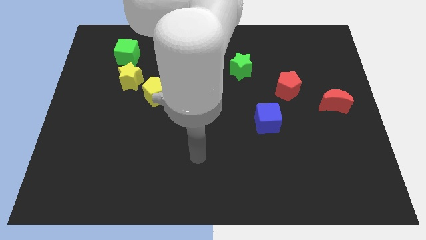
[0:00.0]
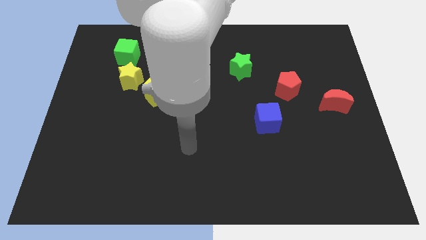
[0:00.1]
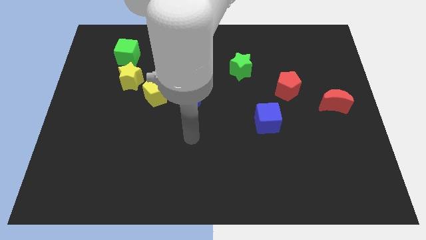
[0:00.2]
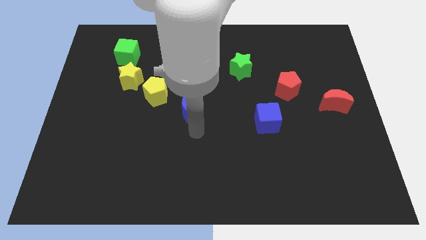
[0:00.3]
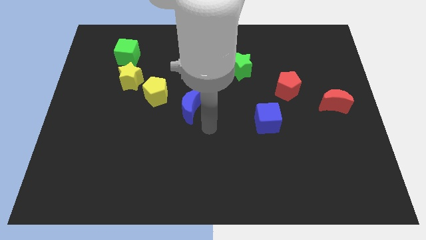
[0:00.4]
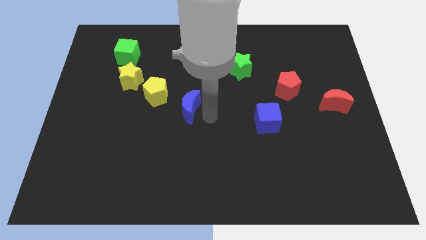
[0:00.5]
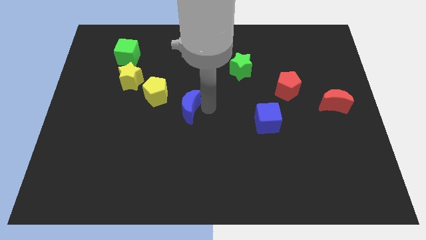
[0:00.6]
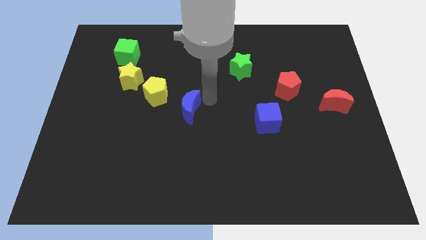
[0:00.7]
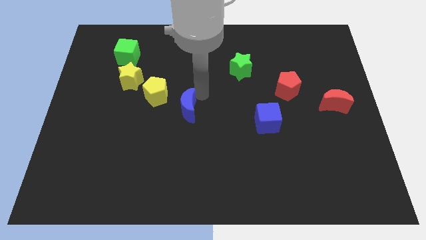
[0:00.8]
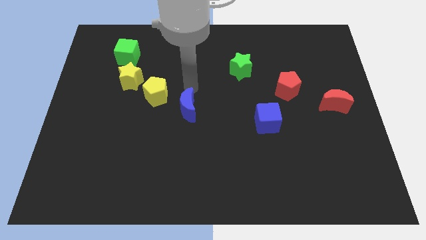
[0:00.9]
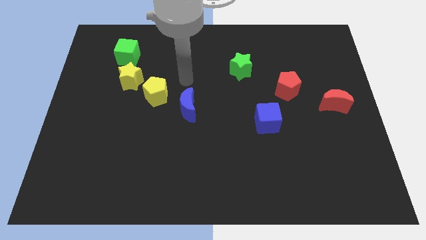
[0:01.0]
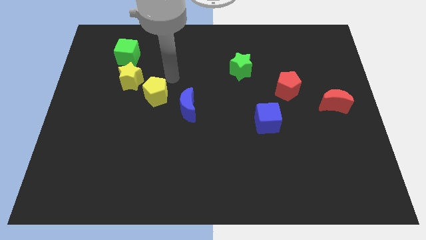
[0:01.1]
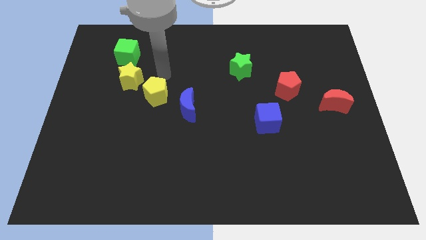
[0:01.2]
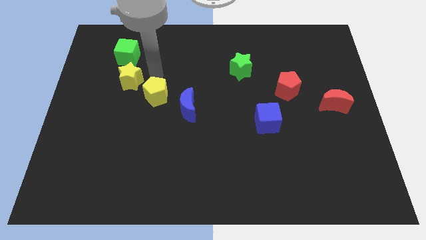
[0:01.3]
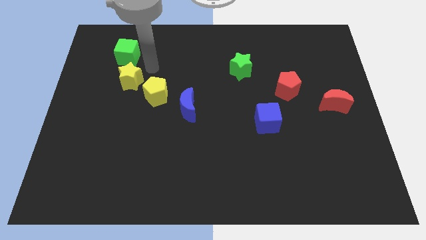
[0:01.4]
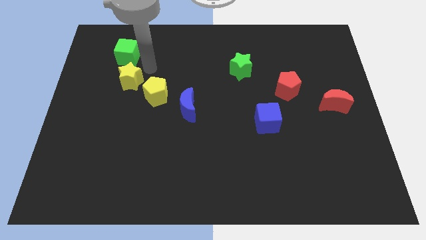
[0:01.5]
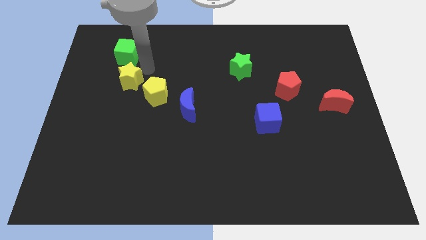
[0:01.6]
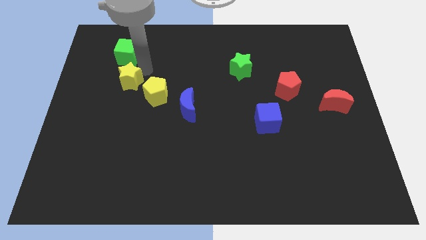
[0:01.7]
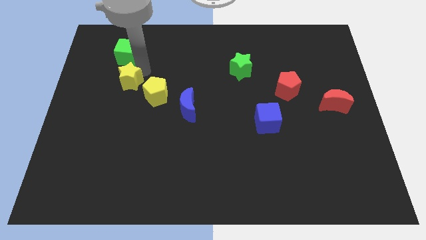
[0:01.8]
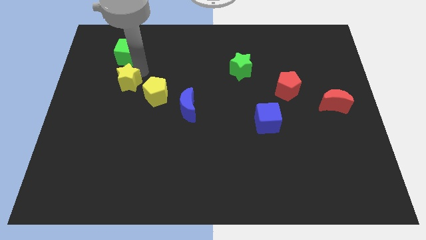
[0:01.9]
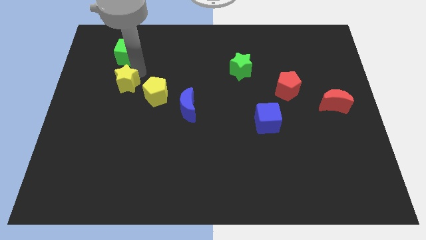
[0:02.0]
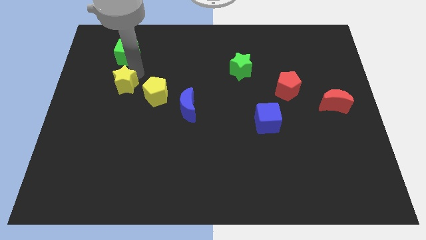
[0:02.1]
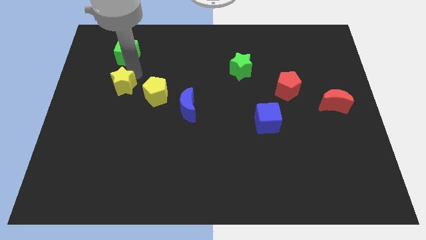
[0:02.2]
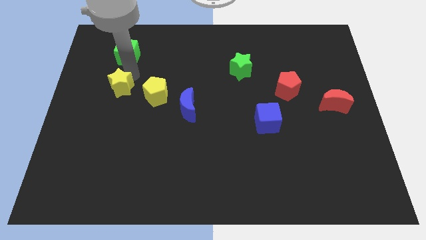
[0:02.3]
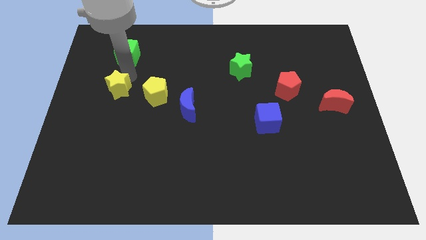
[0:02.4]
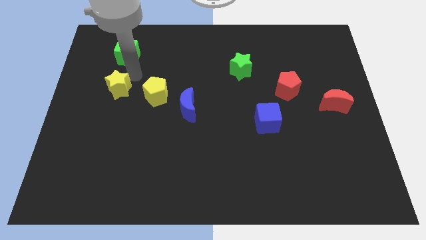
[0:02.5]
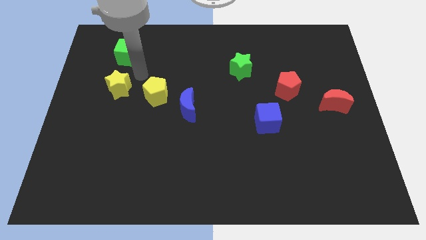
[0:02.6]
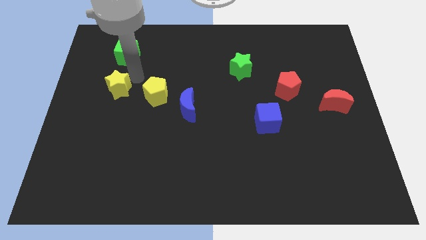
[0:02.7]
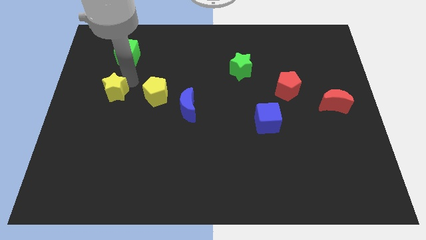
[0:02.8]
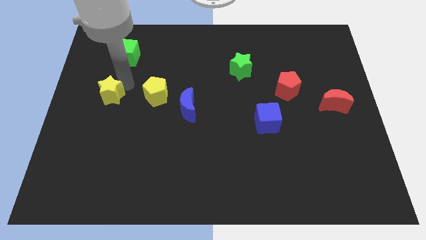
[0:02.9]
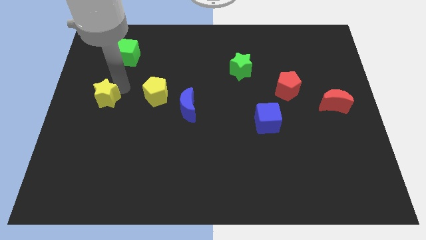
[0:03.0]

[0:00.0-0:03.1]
separate the yellow star from the yellow pentagon and green cube

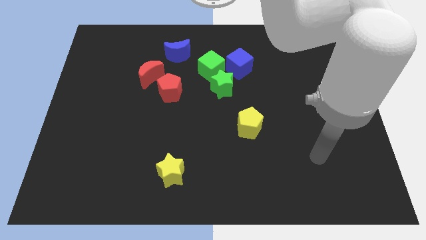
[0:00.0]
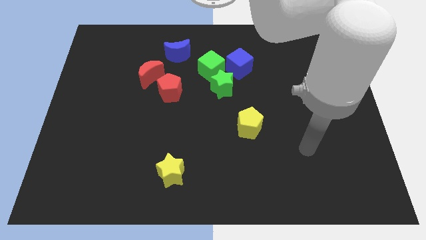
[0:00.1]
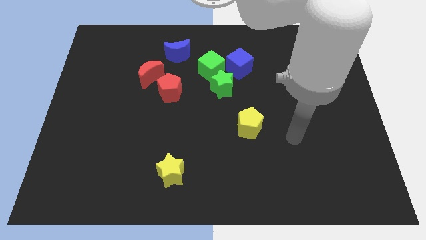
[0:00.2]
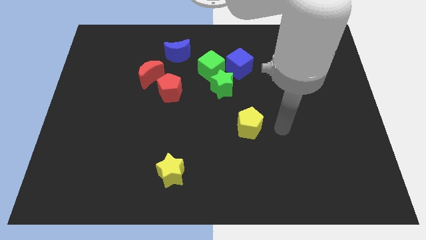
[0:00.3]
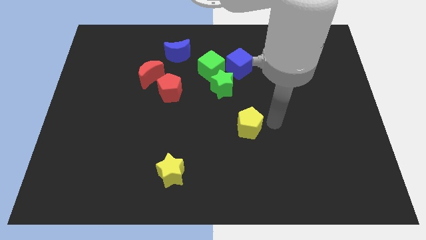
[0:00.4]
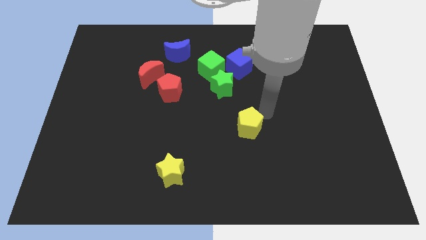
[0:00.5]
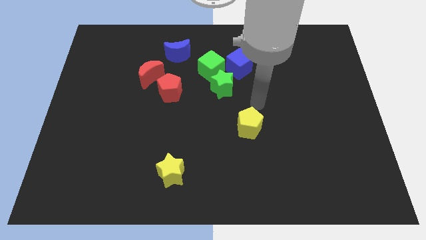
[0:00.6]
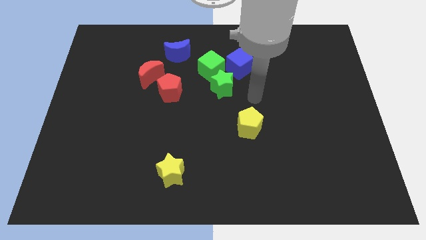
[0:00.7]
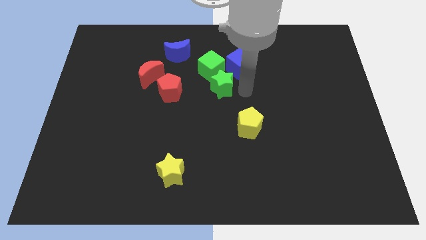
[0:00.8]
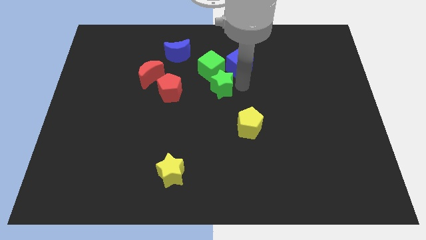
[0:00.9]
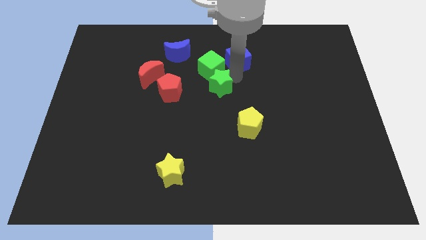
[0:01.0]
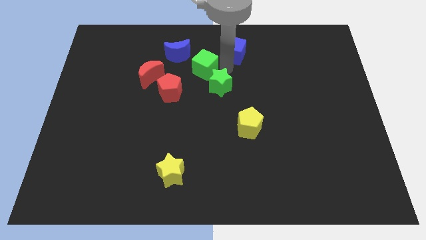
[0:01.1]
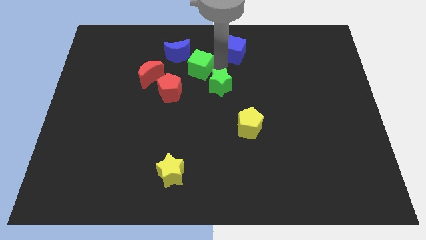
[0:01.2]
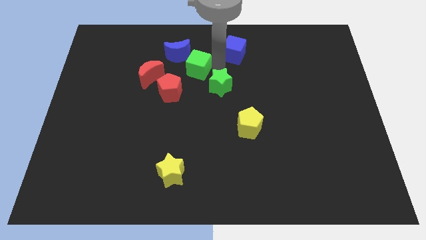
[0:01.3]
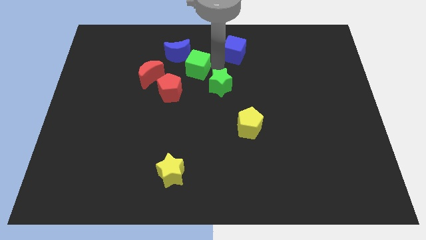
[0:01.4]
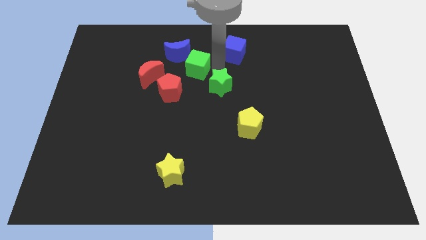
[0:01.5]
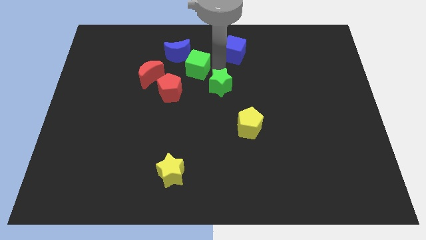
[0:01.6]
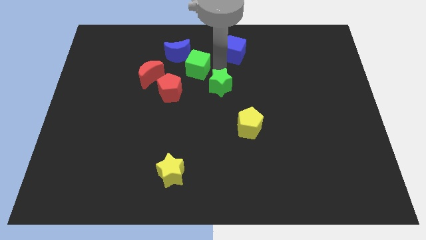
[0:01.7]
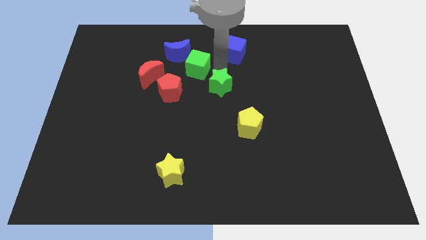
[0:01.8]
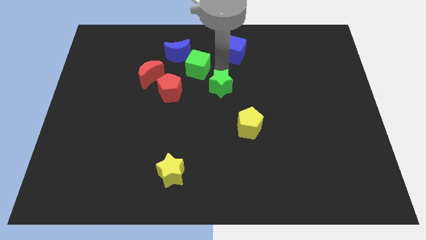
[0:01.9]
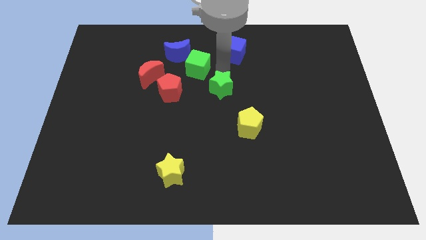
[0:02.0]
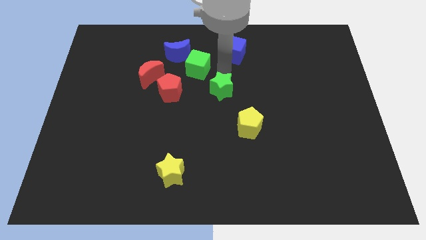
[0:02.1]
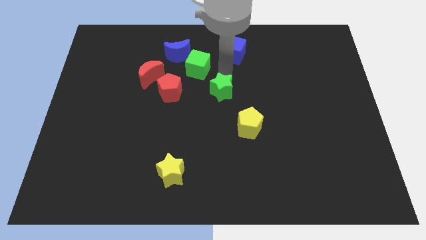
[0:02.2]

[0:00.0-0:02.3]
separate the green star from the green cube and blue cube

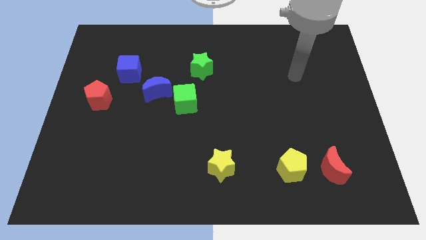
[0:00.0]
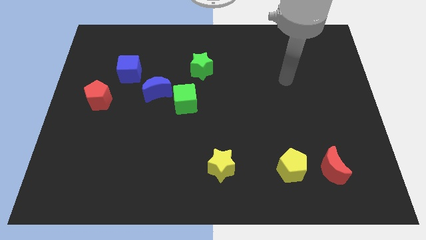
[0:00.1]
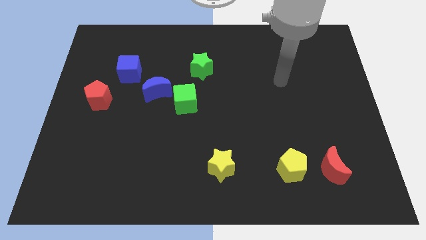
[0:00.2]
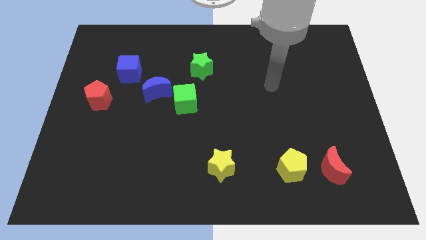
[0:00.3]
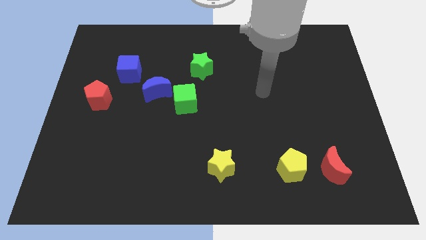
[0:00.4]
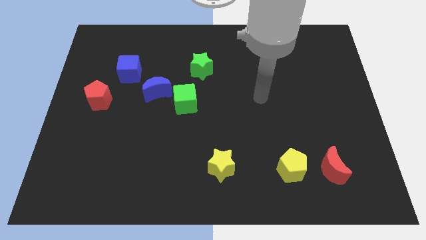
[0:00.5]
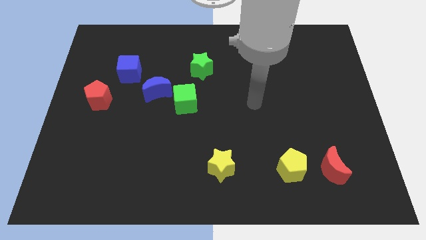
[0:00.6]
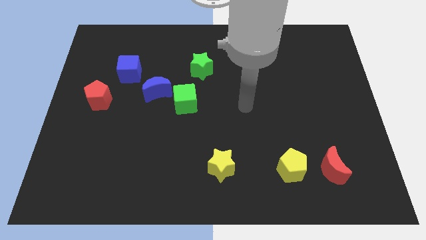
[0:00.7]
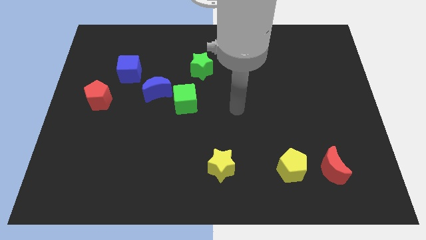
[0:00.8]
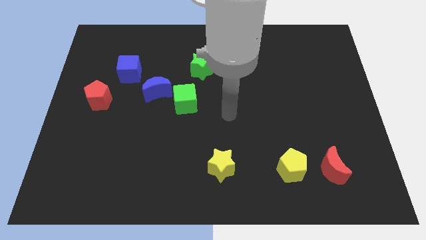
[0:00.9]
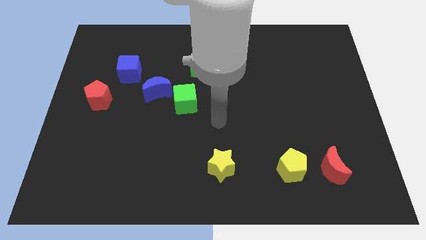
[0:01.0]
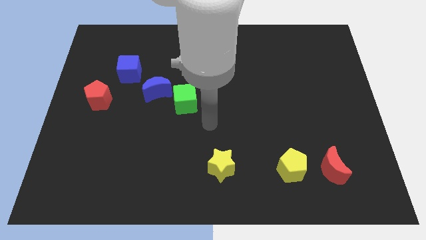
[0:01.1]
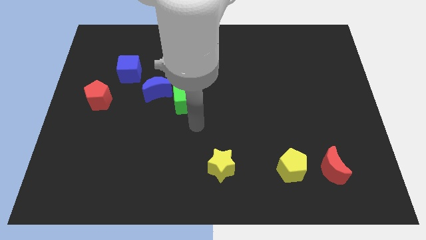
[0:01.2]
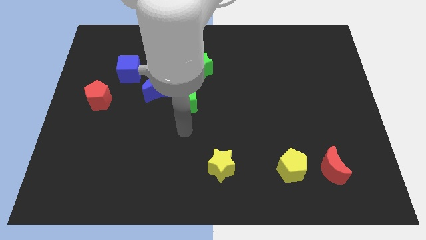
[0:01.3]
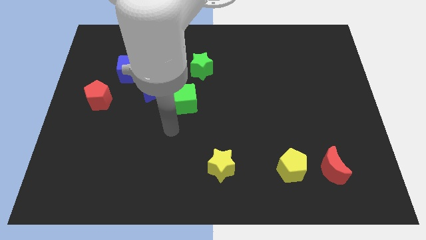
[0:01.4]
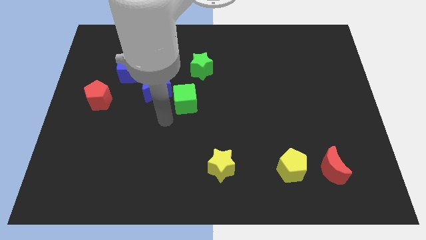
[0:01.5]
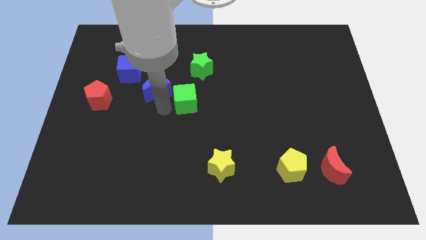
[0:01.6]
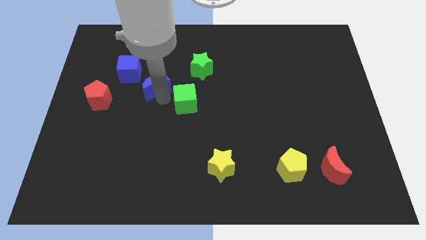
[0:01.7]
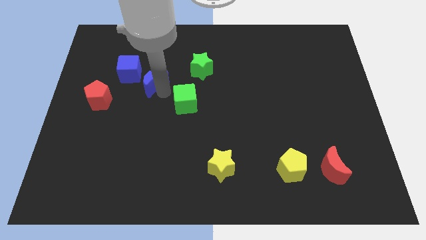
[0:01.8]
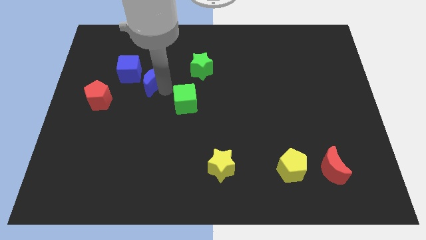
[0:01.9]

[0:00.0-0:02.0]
move the green cube away from the blue moon

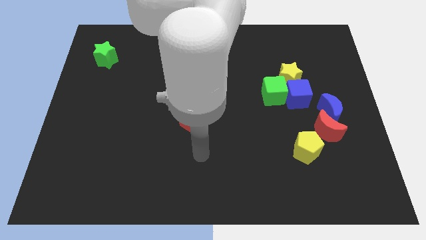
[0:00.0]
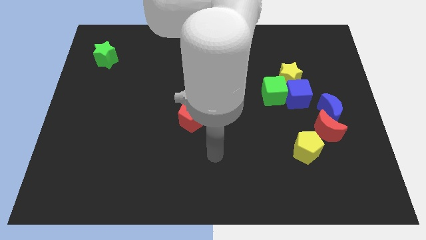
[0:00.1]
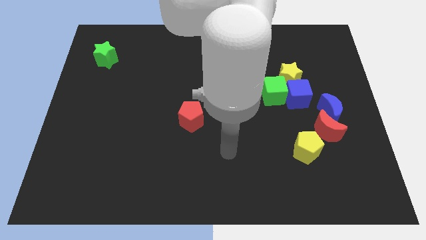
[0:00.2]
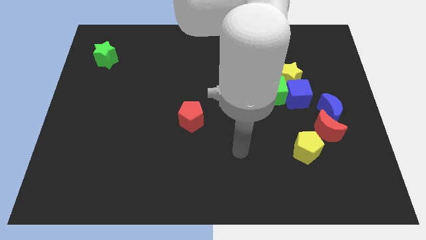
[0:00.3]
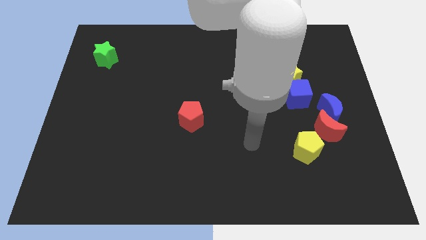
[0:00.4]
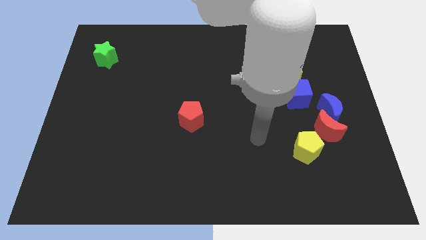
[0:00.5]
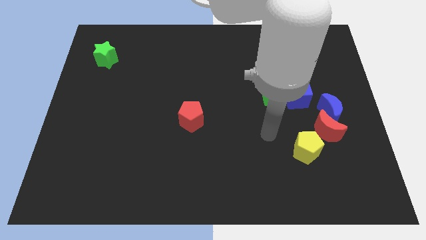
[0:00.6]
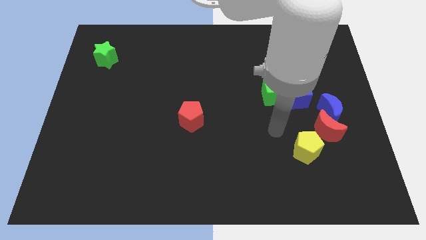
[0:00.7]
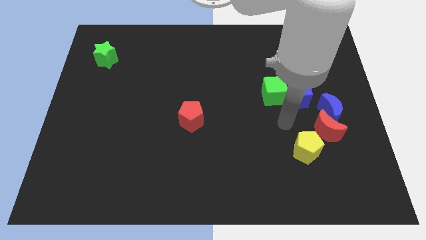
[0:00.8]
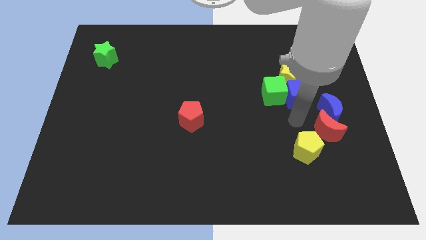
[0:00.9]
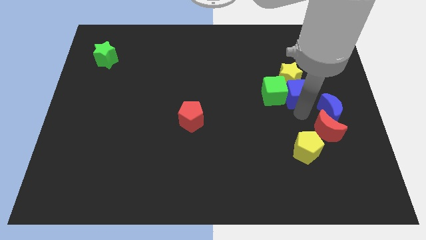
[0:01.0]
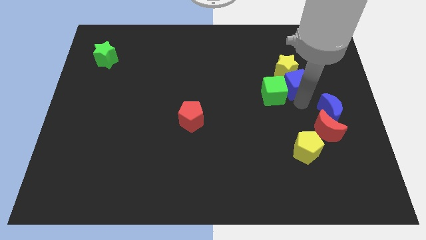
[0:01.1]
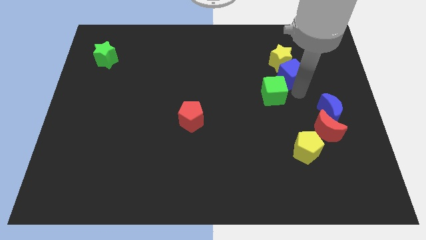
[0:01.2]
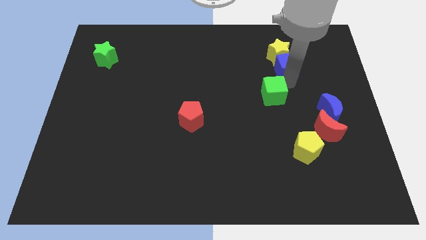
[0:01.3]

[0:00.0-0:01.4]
separate the green cube from the blue cube and yellow star

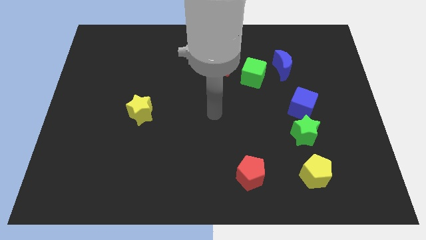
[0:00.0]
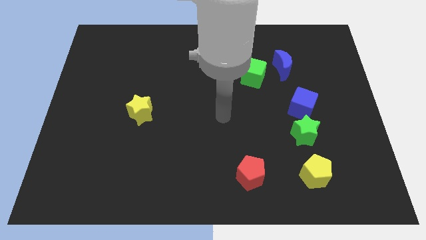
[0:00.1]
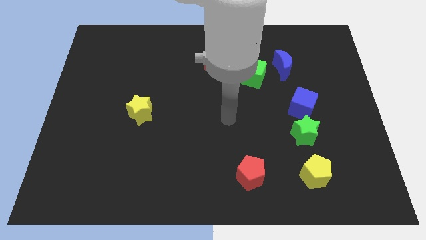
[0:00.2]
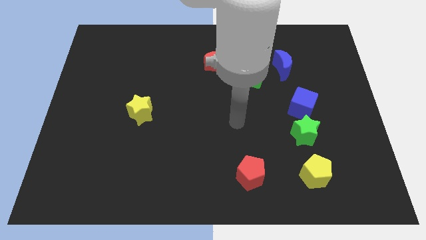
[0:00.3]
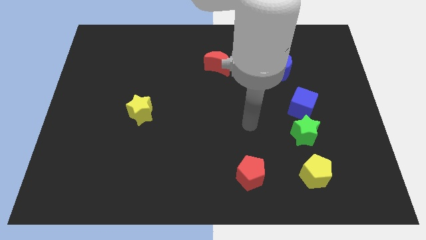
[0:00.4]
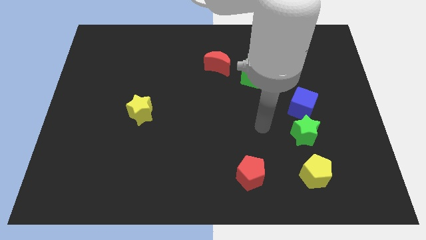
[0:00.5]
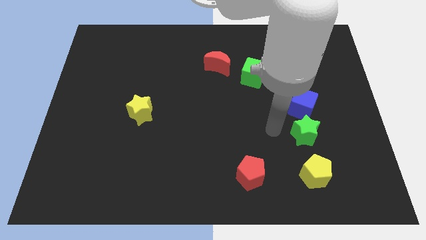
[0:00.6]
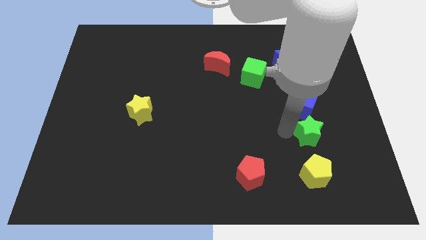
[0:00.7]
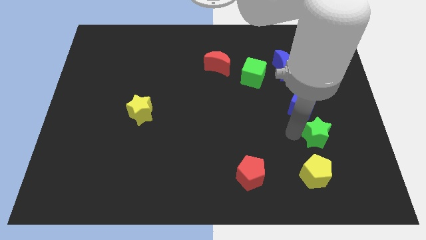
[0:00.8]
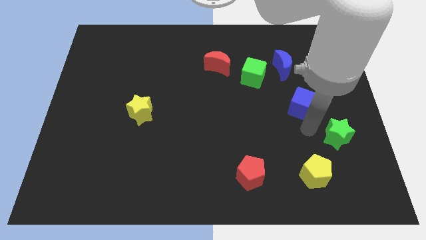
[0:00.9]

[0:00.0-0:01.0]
separate the blue cube from the green star
